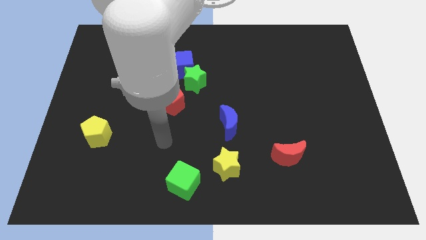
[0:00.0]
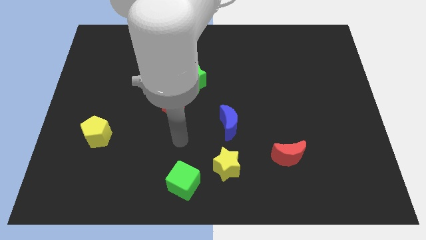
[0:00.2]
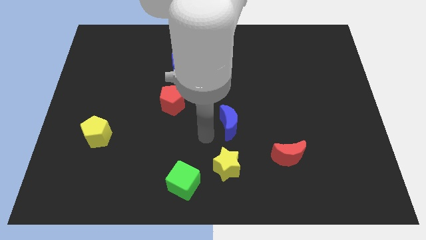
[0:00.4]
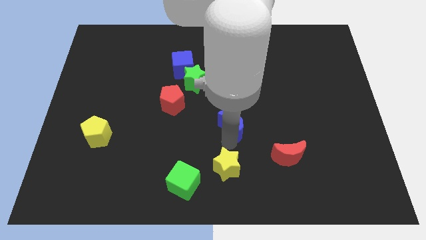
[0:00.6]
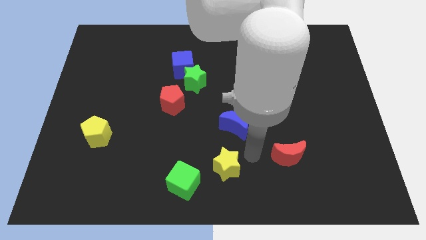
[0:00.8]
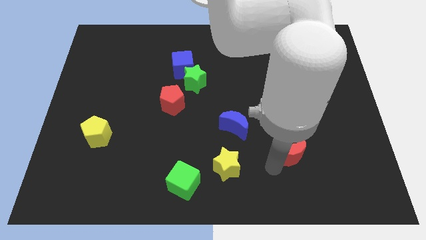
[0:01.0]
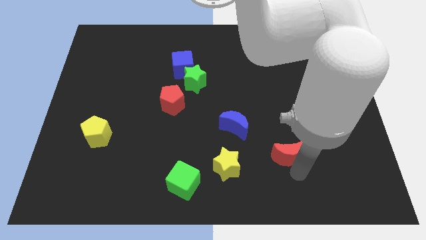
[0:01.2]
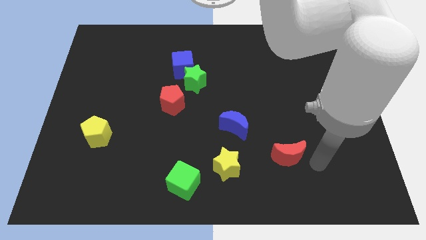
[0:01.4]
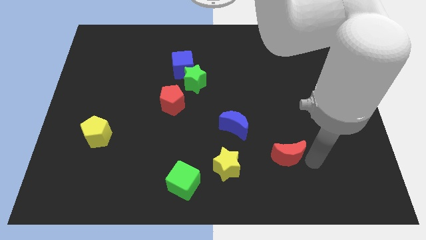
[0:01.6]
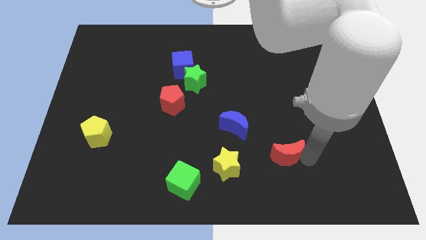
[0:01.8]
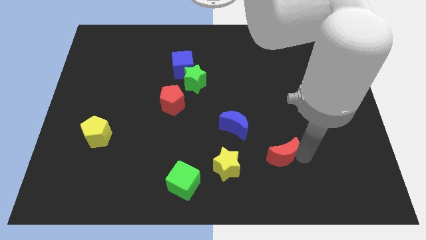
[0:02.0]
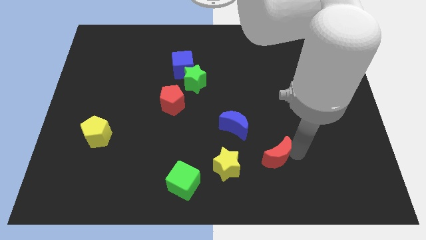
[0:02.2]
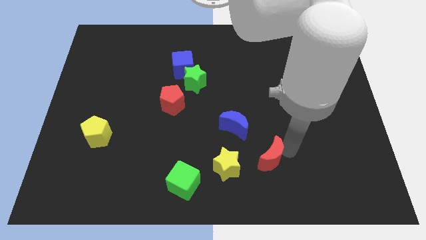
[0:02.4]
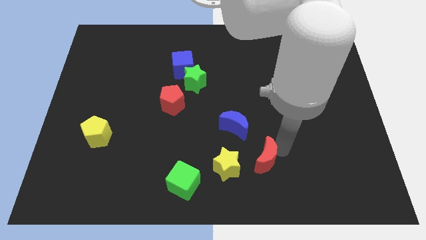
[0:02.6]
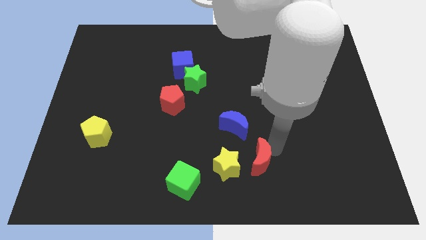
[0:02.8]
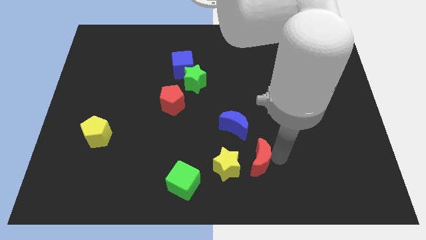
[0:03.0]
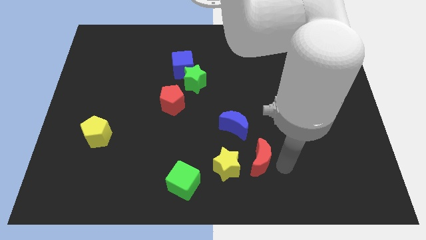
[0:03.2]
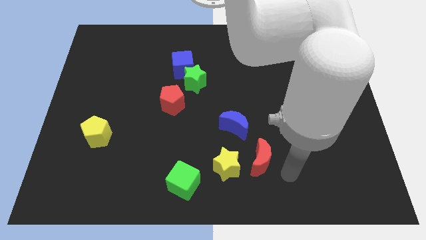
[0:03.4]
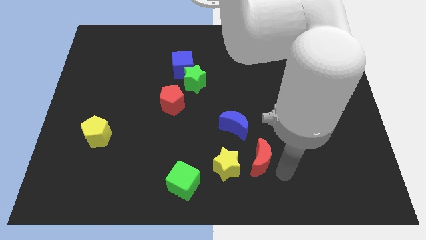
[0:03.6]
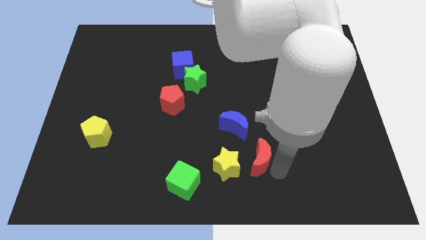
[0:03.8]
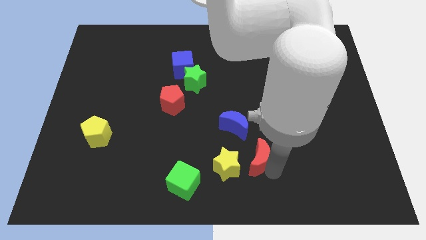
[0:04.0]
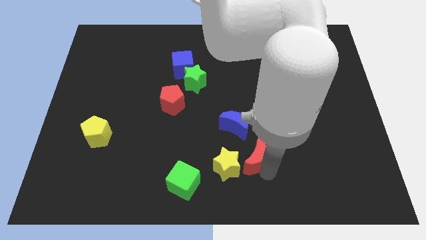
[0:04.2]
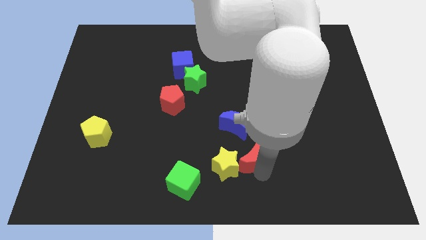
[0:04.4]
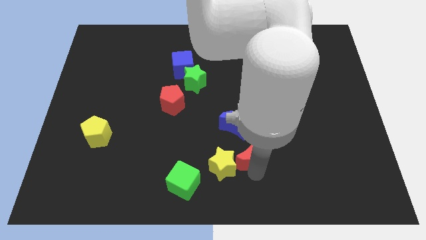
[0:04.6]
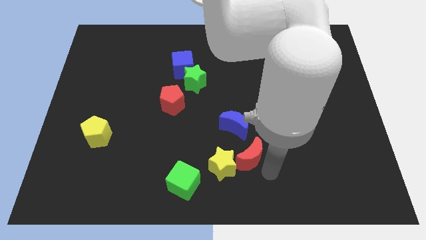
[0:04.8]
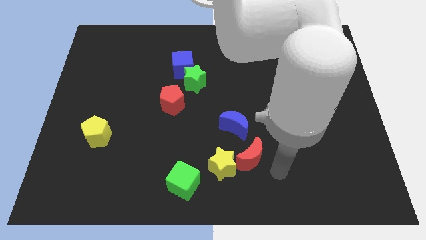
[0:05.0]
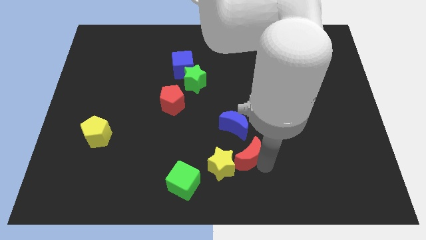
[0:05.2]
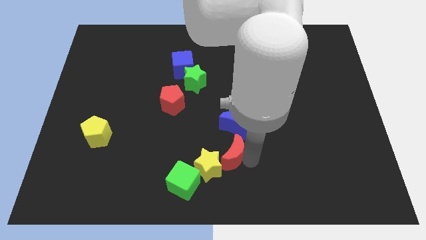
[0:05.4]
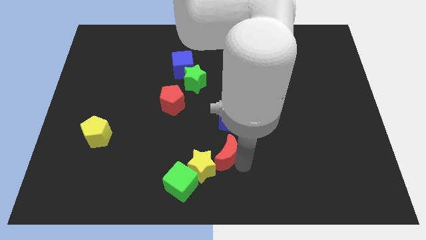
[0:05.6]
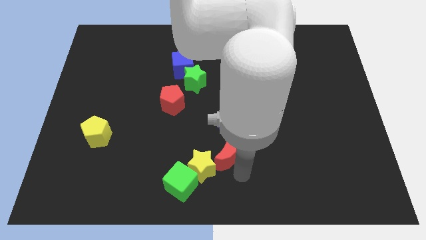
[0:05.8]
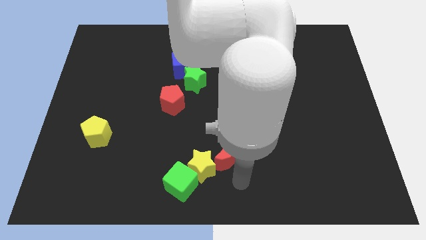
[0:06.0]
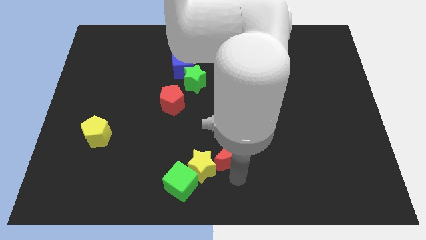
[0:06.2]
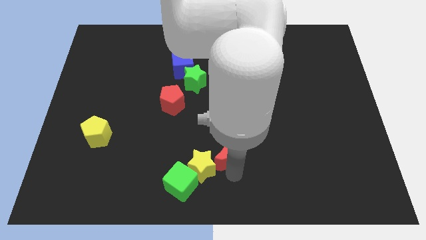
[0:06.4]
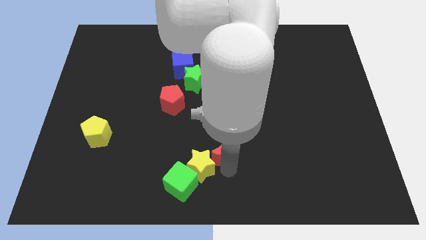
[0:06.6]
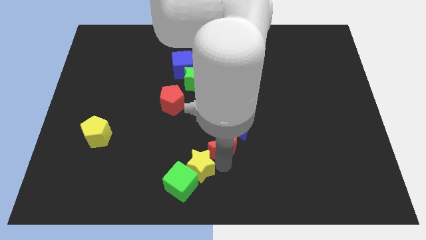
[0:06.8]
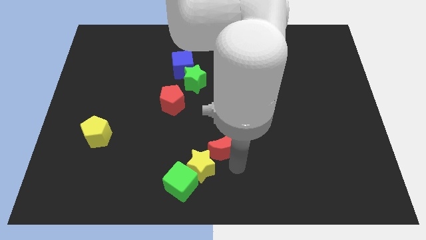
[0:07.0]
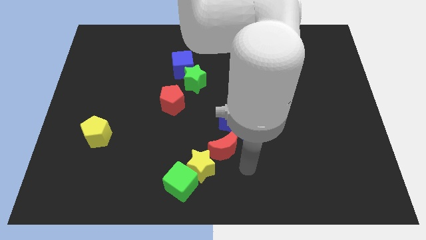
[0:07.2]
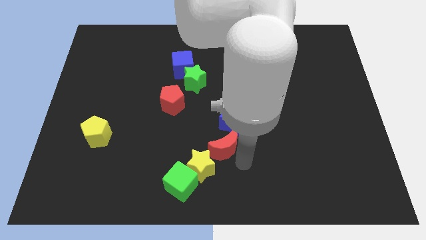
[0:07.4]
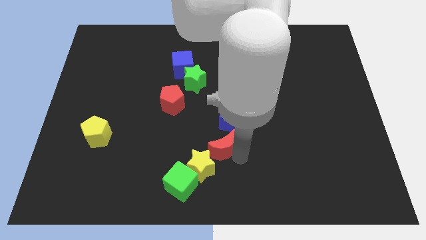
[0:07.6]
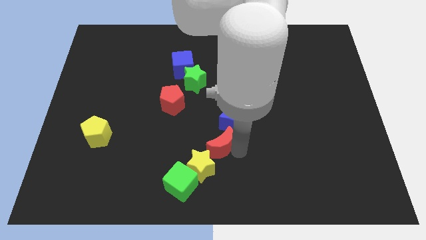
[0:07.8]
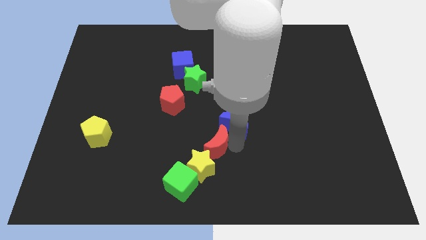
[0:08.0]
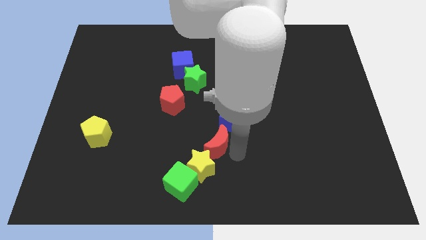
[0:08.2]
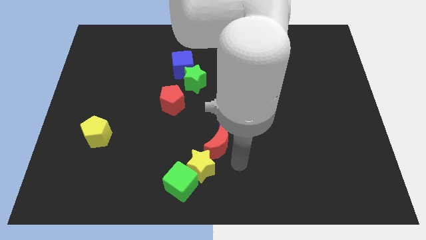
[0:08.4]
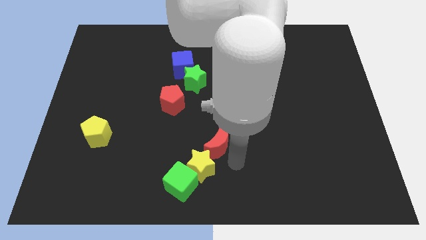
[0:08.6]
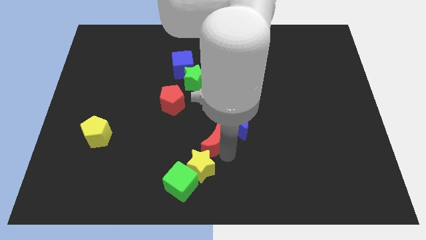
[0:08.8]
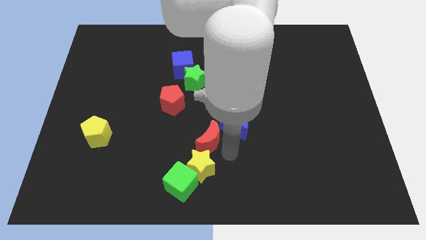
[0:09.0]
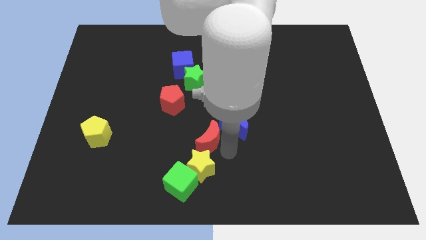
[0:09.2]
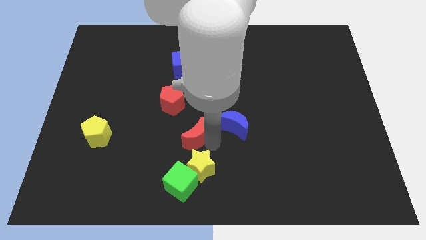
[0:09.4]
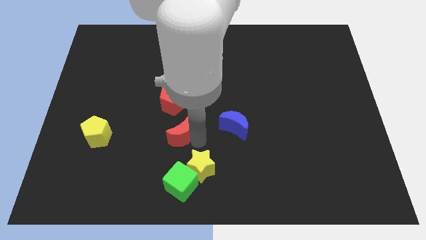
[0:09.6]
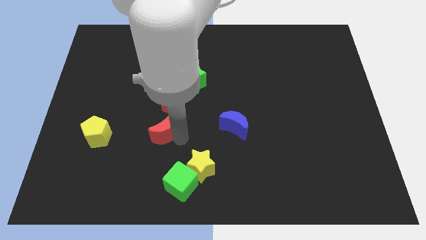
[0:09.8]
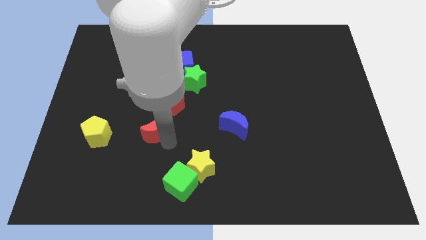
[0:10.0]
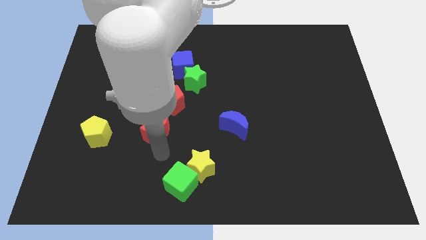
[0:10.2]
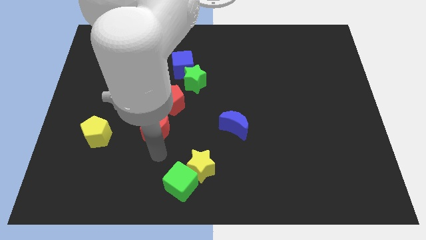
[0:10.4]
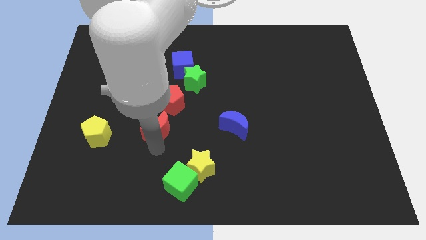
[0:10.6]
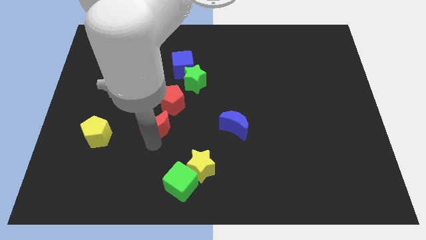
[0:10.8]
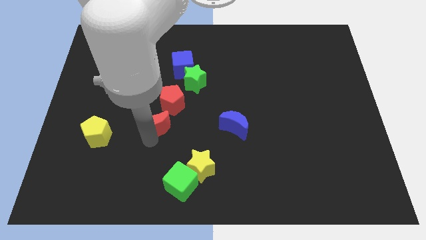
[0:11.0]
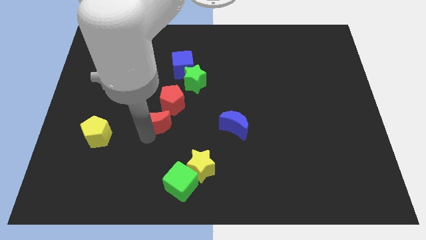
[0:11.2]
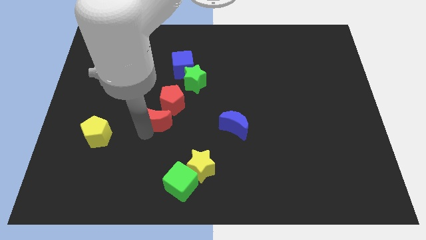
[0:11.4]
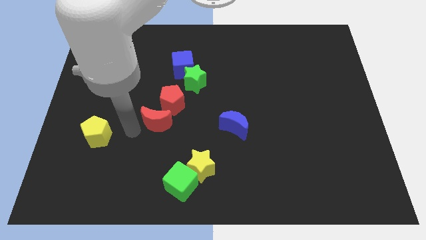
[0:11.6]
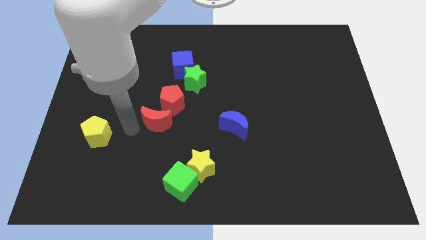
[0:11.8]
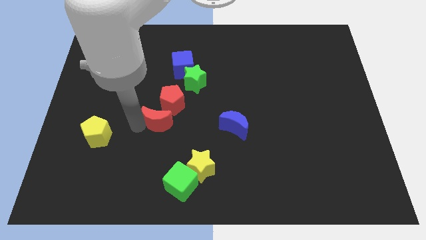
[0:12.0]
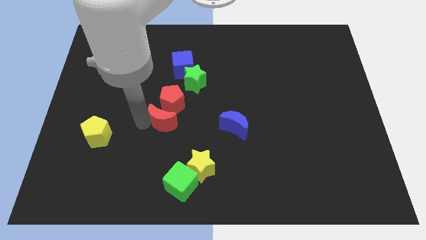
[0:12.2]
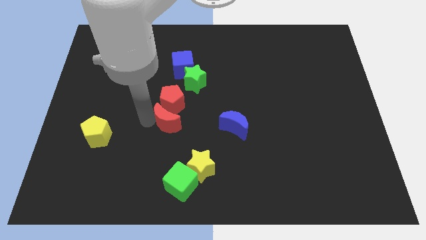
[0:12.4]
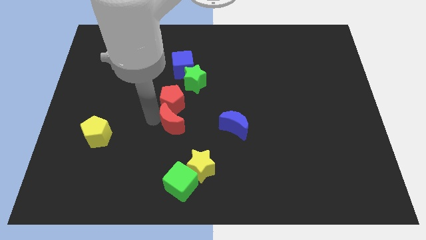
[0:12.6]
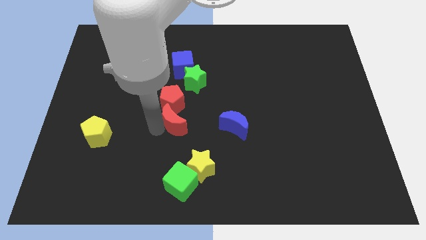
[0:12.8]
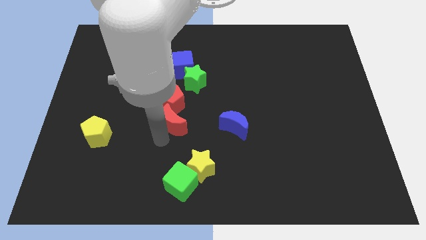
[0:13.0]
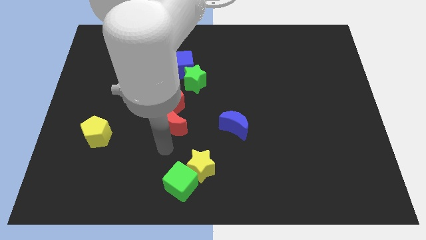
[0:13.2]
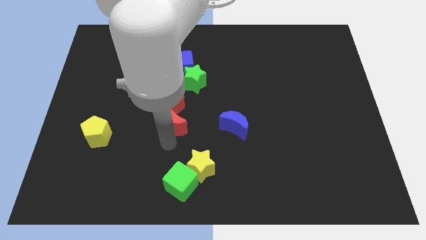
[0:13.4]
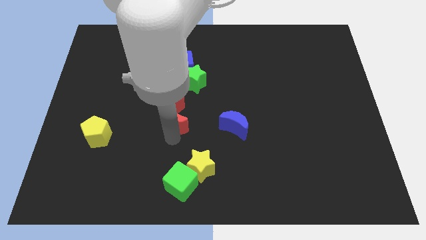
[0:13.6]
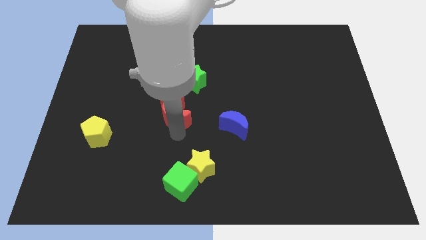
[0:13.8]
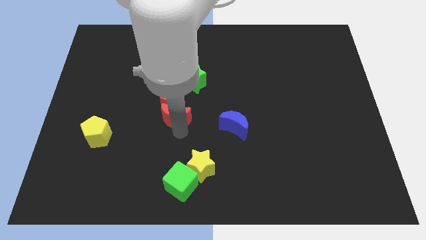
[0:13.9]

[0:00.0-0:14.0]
slide the red moon to the bottom side of the blue cube

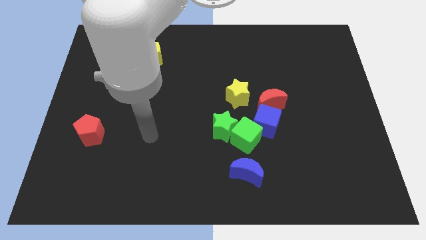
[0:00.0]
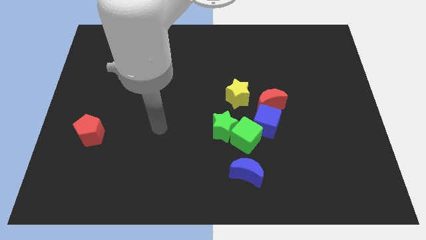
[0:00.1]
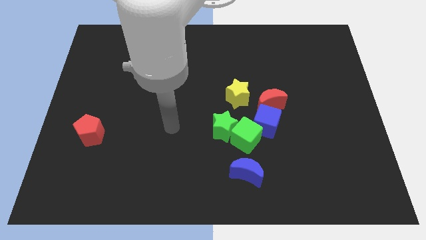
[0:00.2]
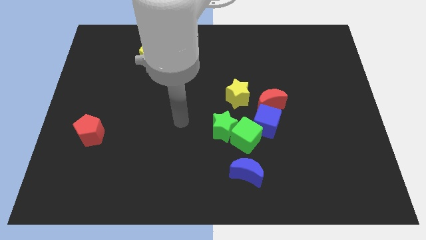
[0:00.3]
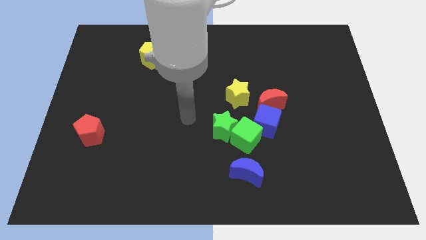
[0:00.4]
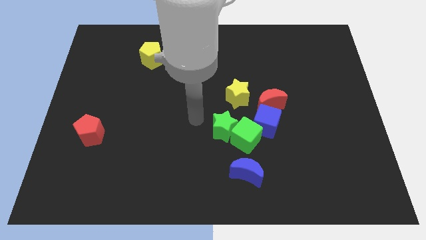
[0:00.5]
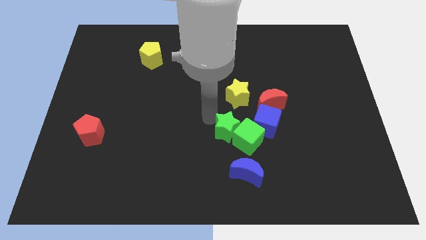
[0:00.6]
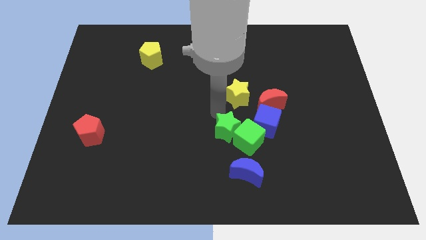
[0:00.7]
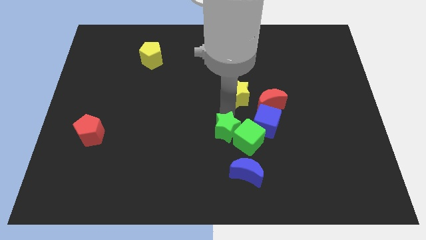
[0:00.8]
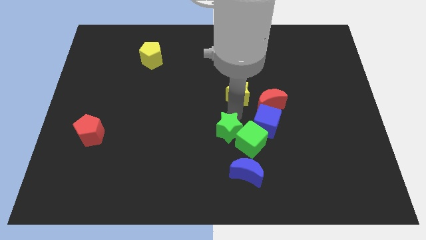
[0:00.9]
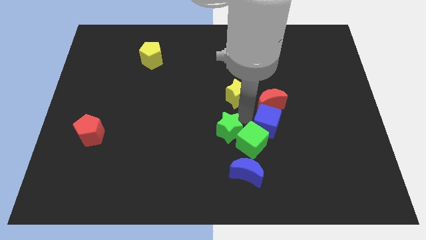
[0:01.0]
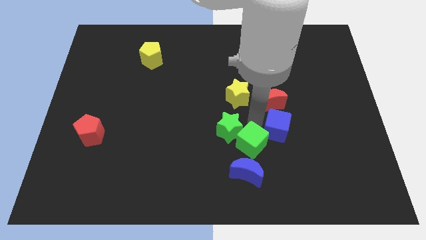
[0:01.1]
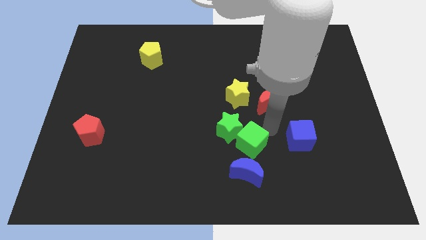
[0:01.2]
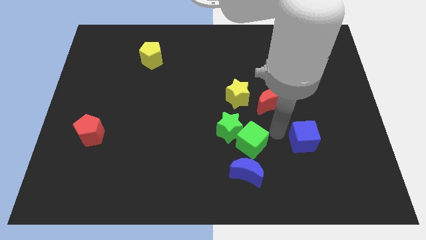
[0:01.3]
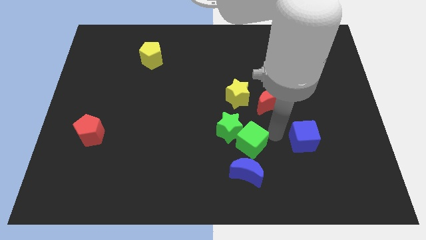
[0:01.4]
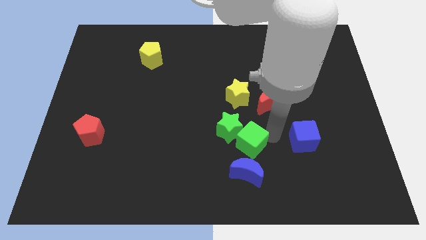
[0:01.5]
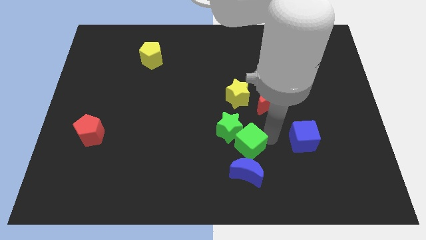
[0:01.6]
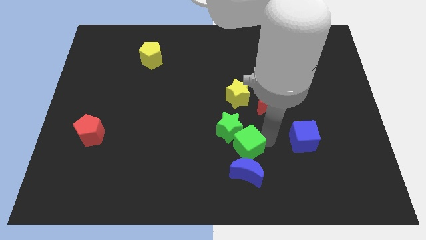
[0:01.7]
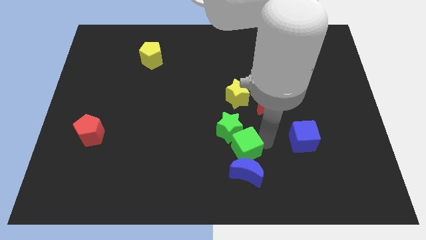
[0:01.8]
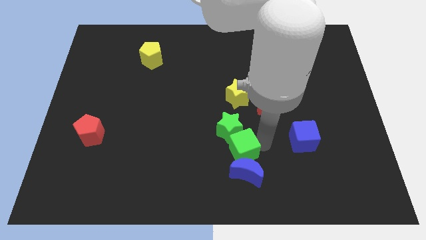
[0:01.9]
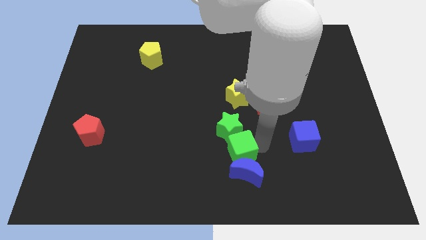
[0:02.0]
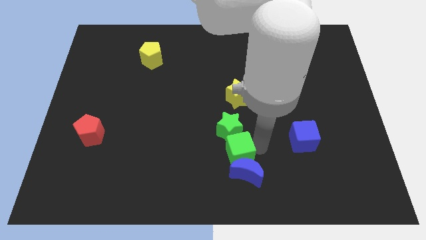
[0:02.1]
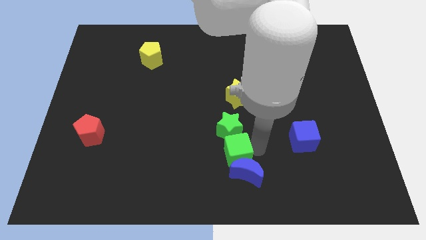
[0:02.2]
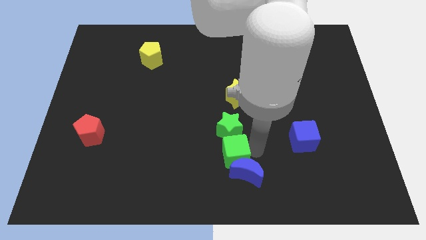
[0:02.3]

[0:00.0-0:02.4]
put the green cube to the bottom left of the green star
